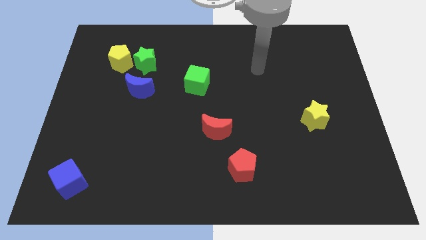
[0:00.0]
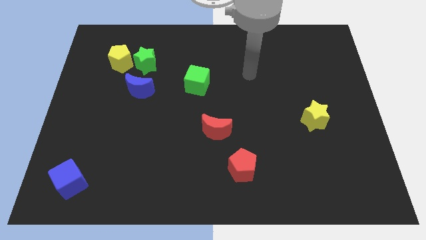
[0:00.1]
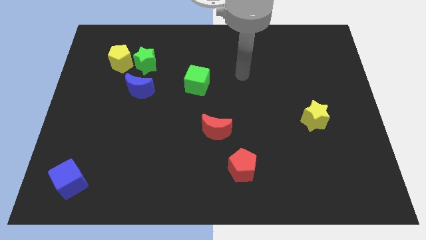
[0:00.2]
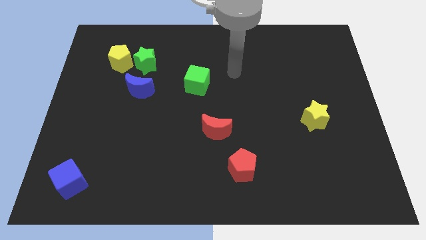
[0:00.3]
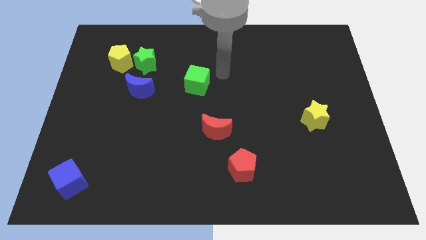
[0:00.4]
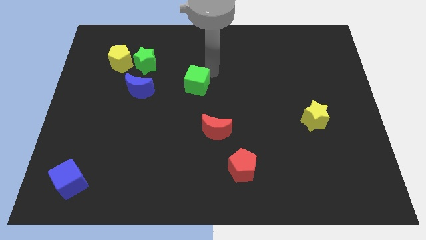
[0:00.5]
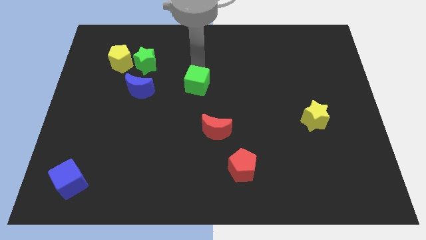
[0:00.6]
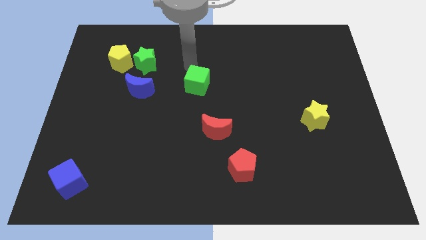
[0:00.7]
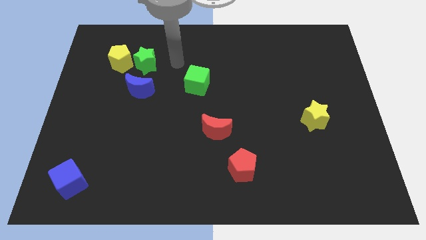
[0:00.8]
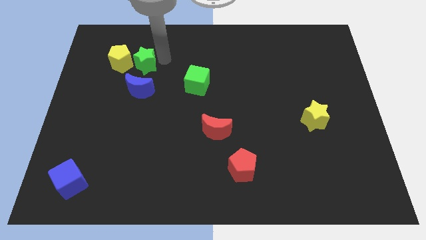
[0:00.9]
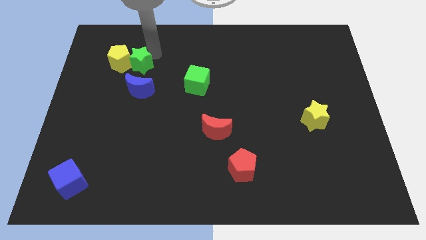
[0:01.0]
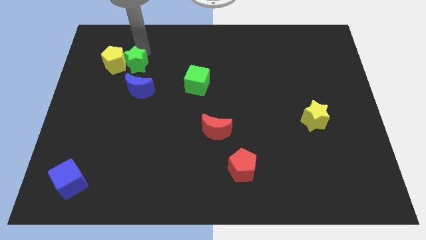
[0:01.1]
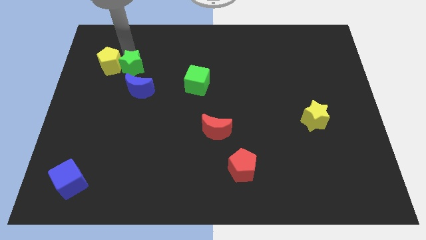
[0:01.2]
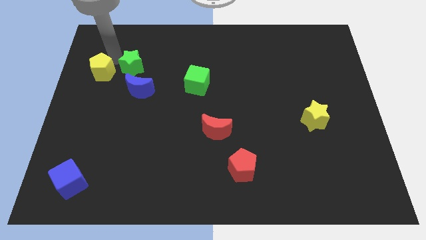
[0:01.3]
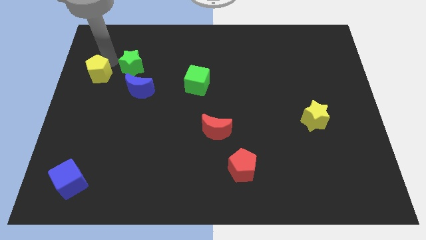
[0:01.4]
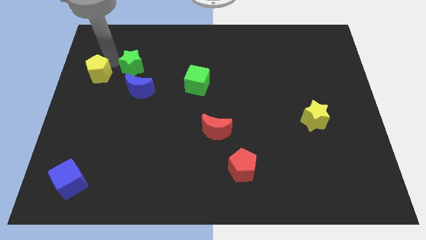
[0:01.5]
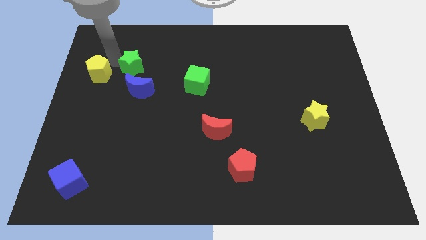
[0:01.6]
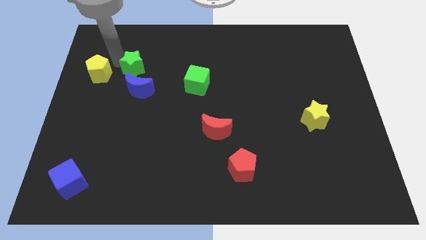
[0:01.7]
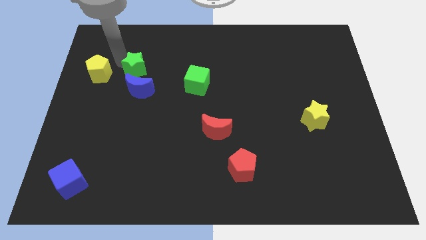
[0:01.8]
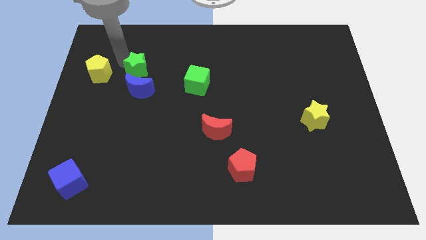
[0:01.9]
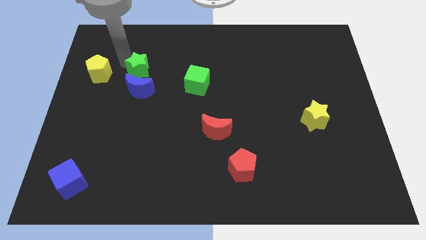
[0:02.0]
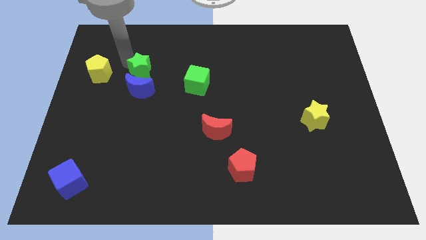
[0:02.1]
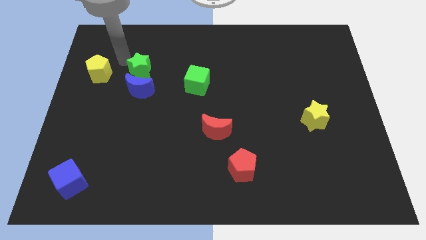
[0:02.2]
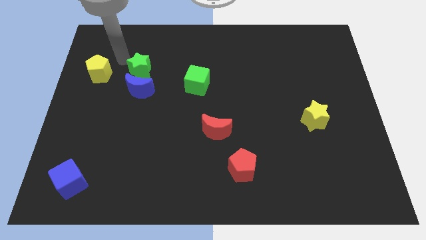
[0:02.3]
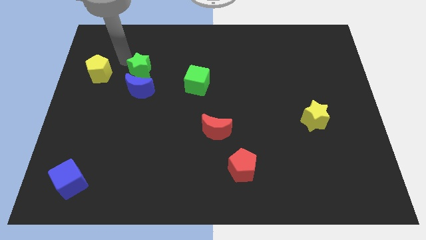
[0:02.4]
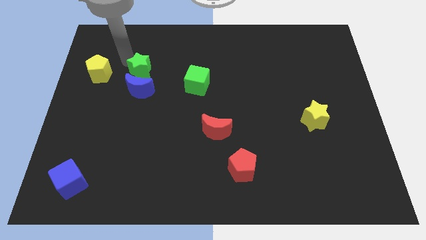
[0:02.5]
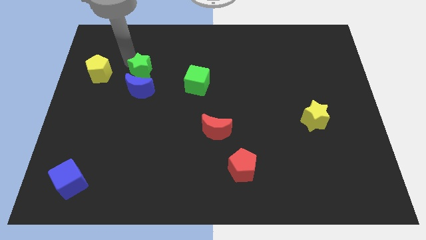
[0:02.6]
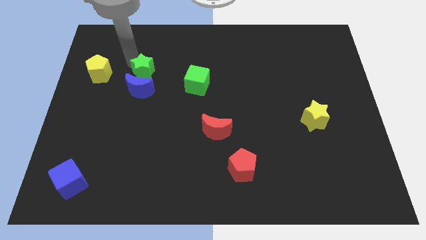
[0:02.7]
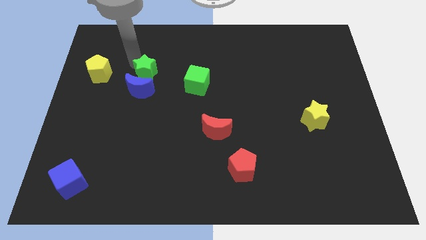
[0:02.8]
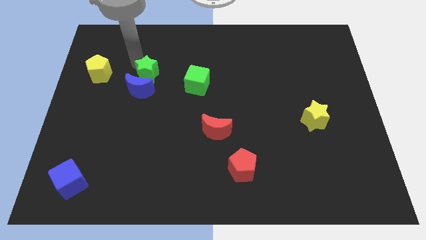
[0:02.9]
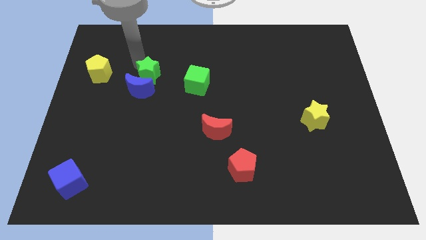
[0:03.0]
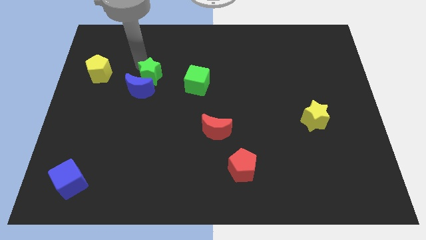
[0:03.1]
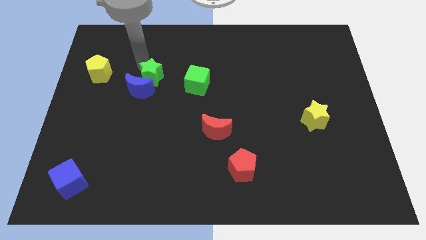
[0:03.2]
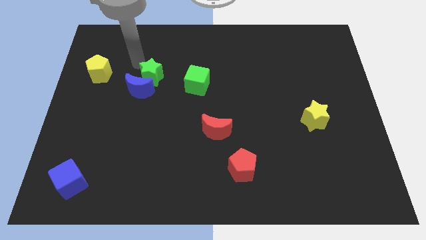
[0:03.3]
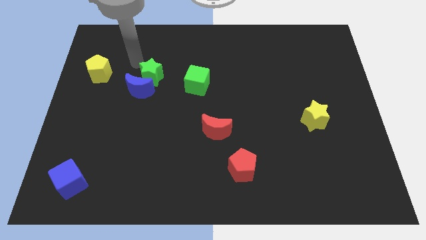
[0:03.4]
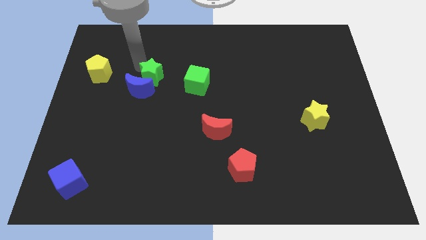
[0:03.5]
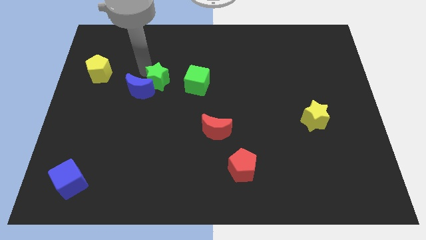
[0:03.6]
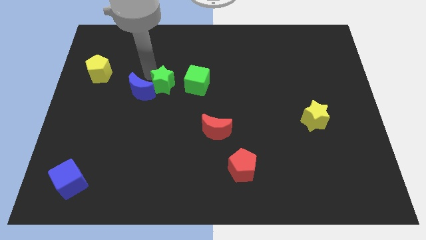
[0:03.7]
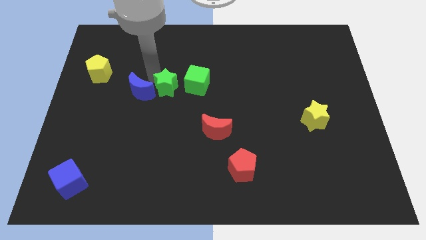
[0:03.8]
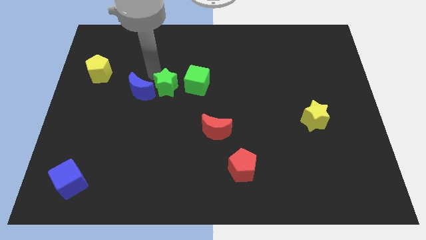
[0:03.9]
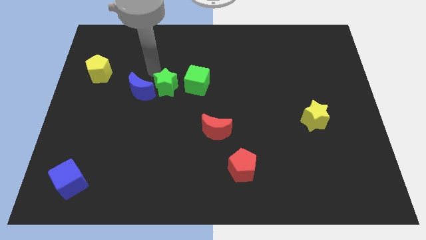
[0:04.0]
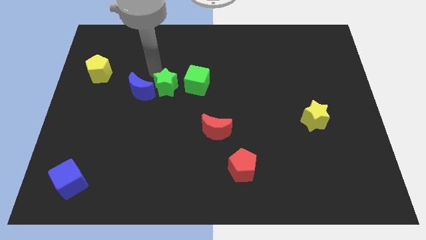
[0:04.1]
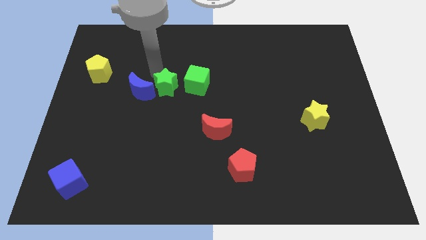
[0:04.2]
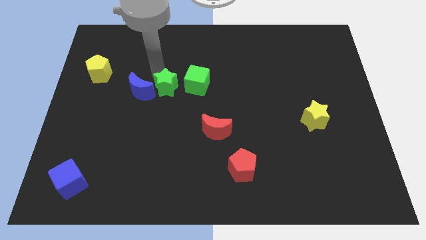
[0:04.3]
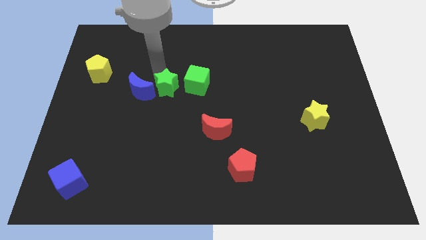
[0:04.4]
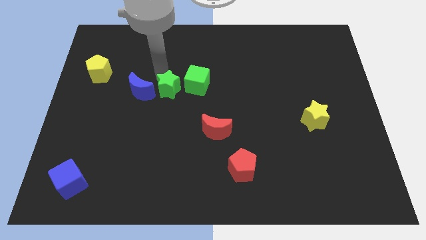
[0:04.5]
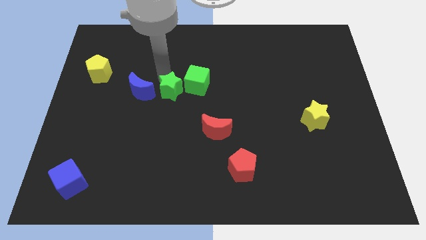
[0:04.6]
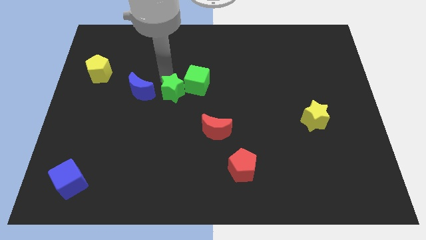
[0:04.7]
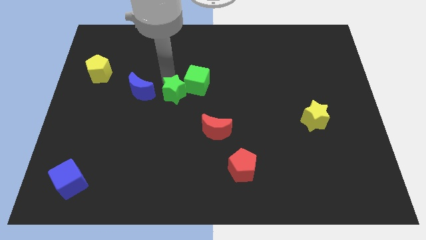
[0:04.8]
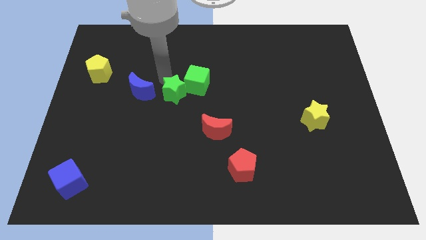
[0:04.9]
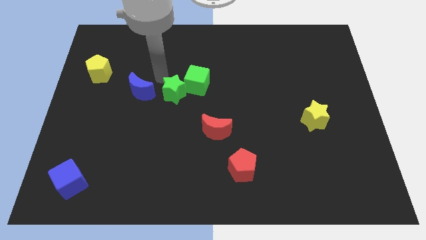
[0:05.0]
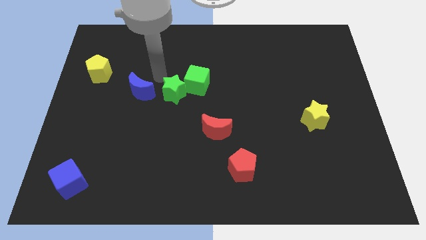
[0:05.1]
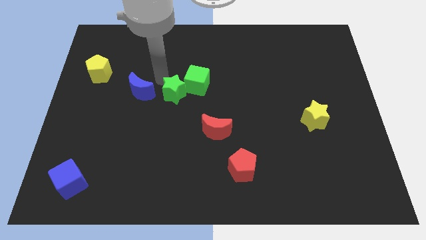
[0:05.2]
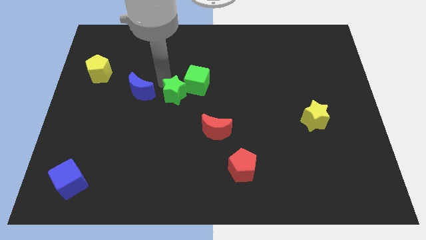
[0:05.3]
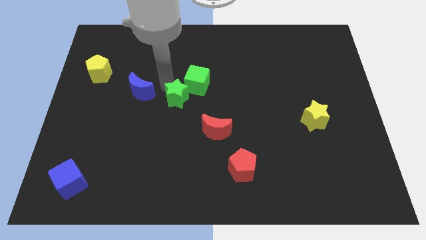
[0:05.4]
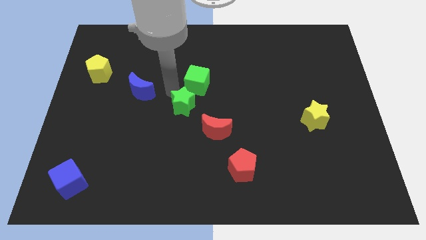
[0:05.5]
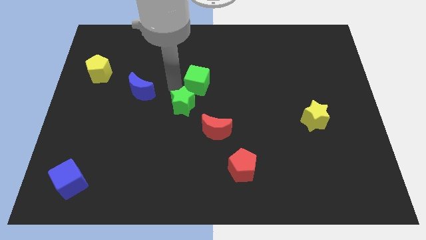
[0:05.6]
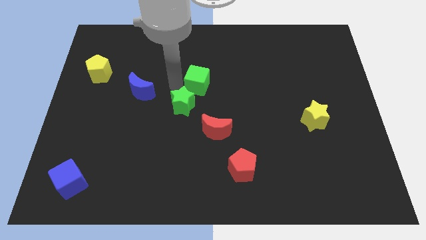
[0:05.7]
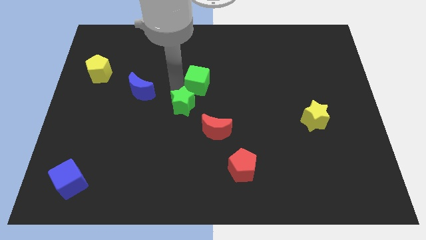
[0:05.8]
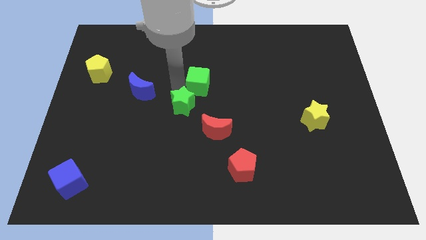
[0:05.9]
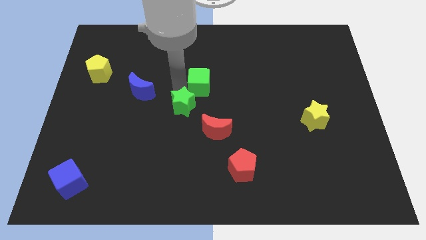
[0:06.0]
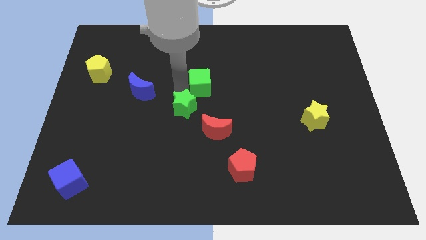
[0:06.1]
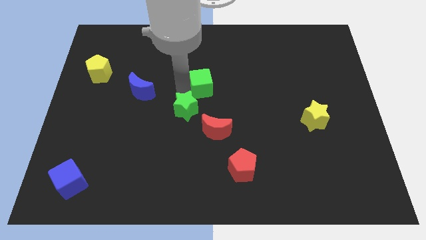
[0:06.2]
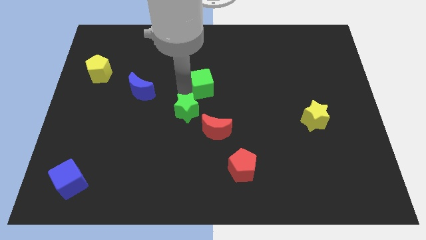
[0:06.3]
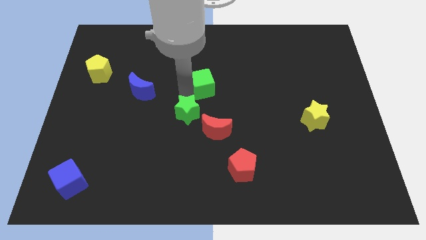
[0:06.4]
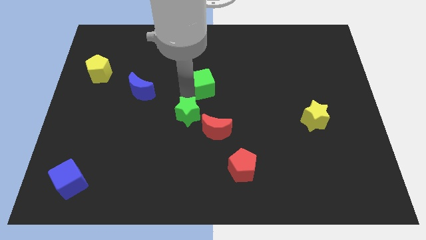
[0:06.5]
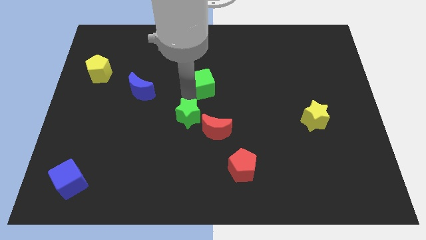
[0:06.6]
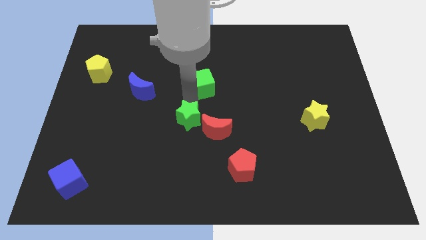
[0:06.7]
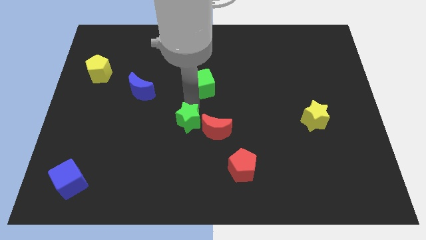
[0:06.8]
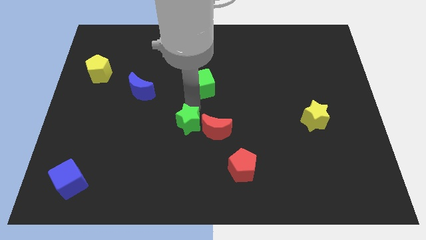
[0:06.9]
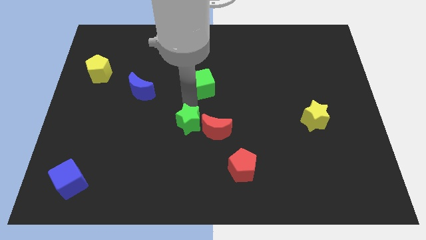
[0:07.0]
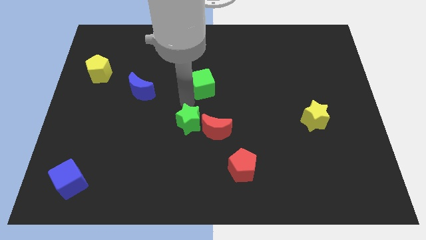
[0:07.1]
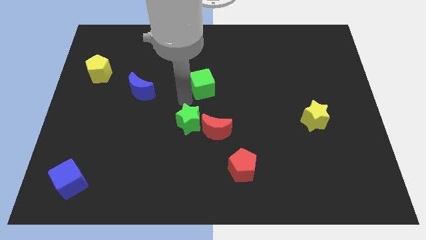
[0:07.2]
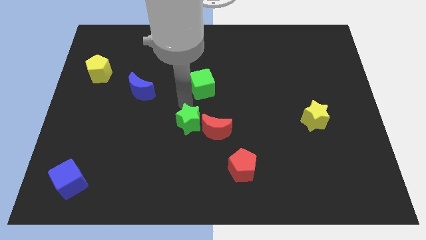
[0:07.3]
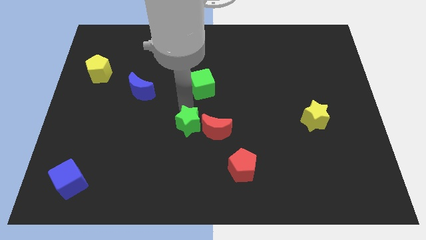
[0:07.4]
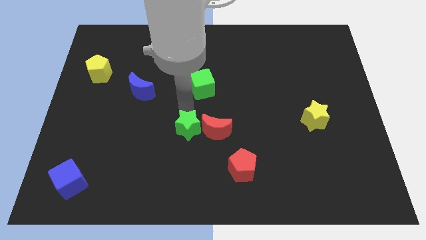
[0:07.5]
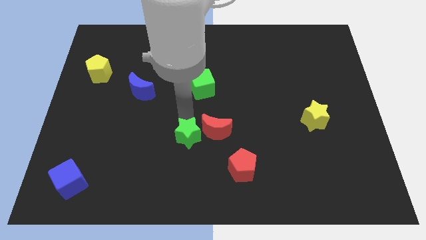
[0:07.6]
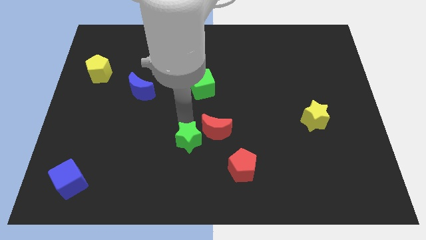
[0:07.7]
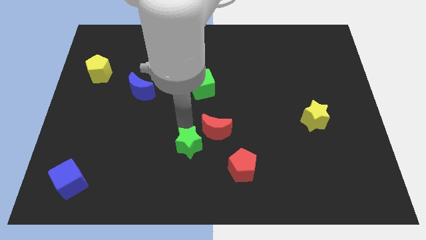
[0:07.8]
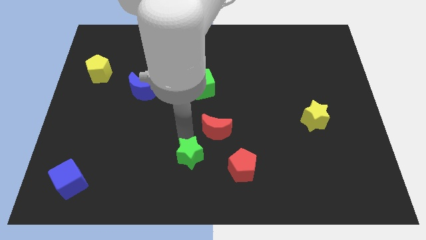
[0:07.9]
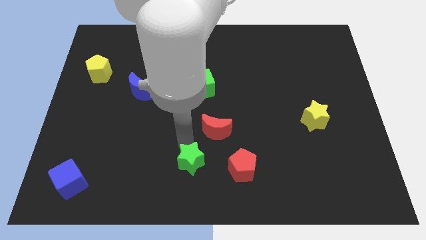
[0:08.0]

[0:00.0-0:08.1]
move the green star to the bottom side
